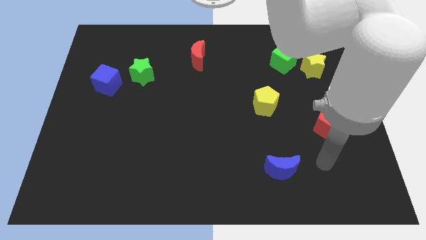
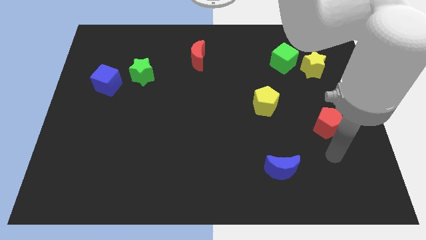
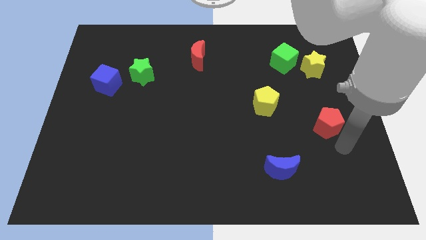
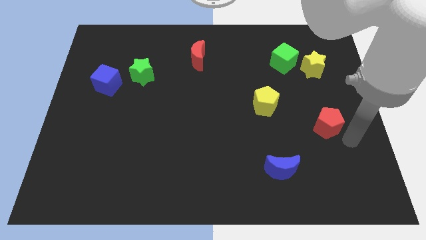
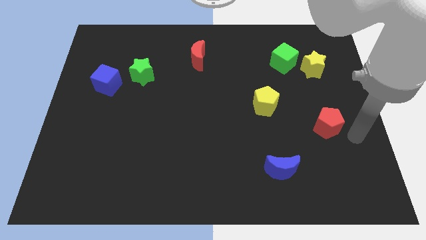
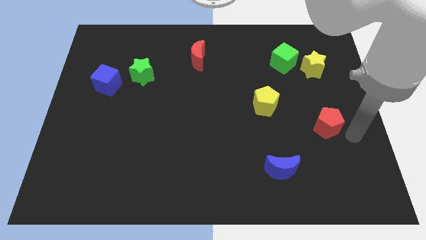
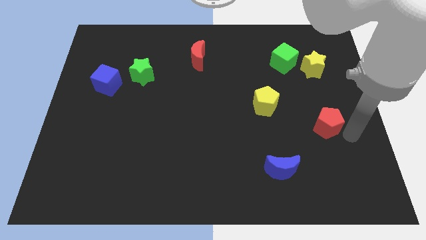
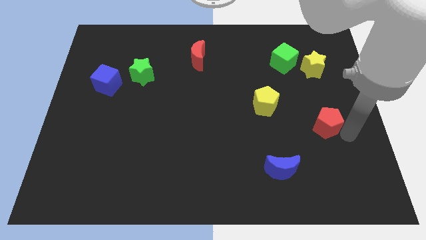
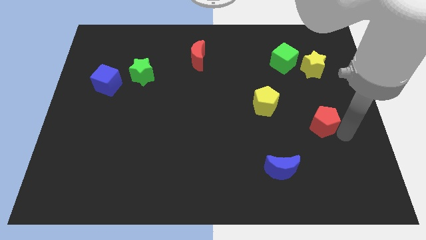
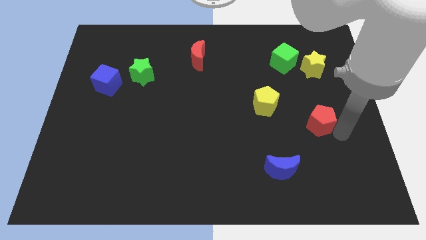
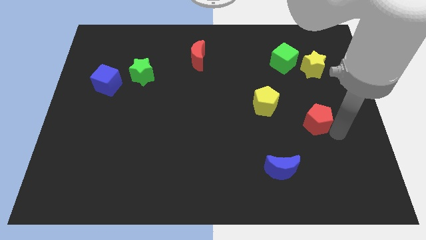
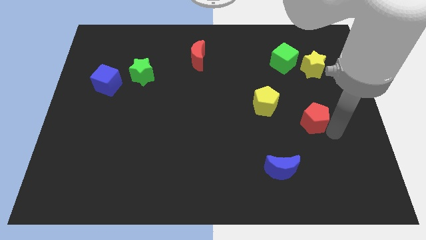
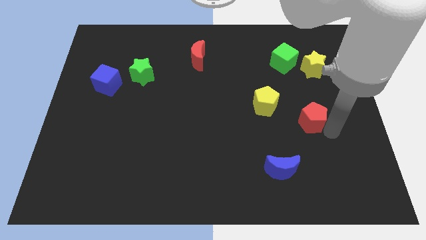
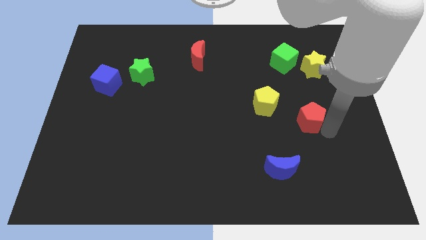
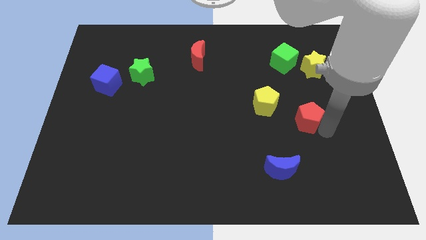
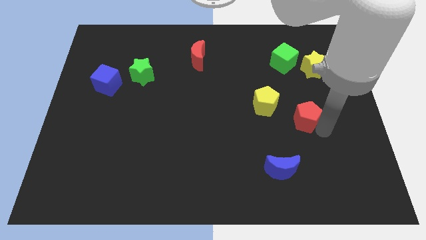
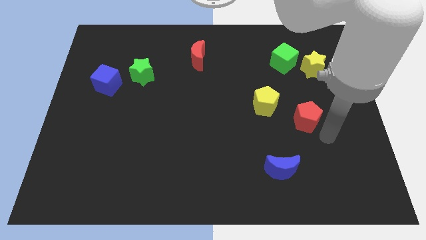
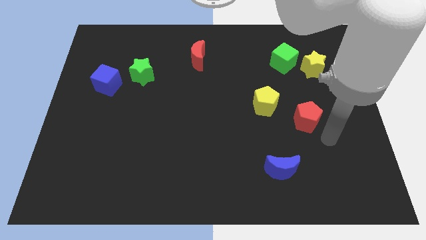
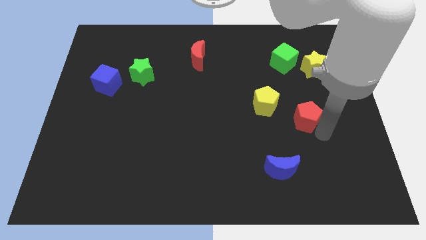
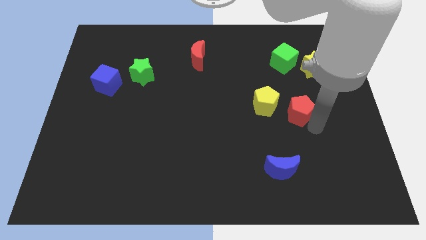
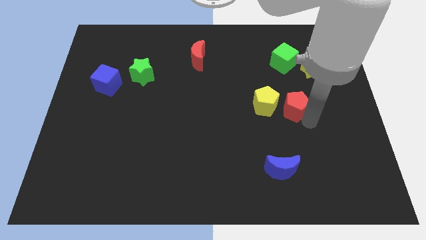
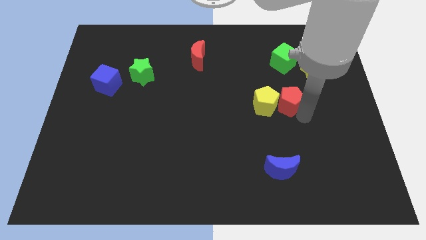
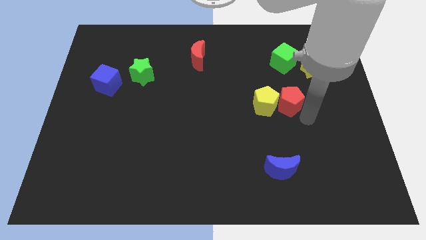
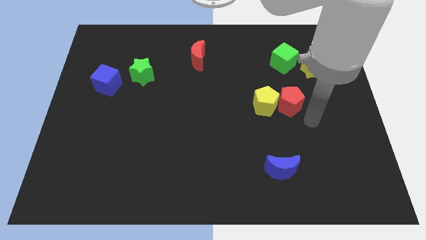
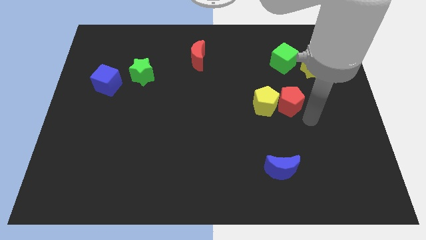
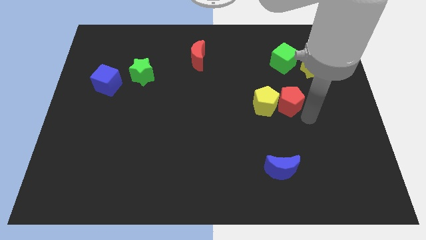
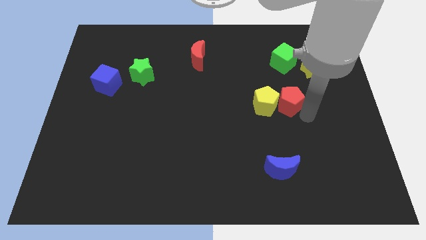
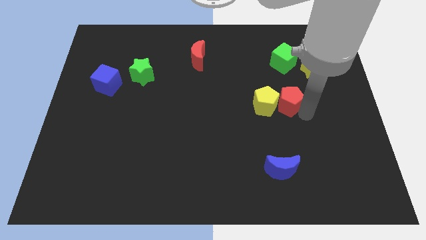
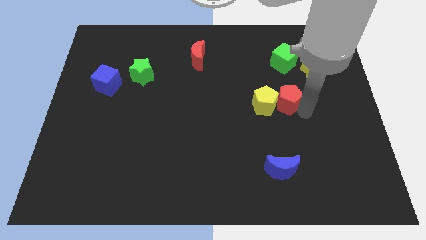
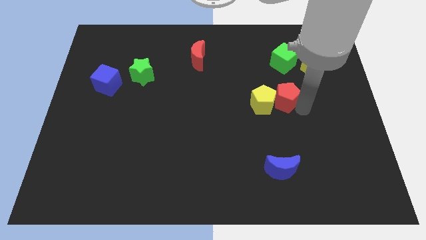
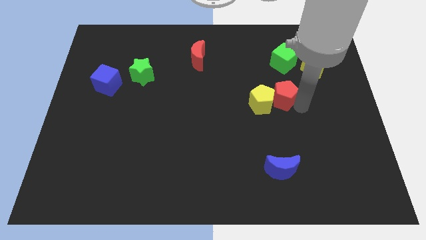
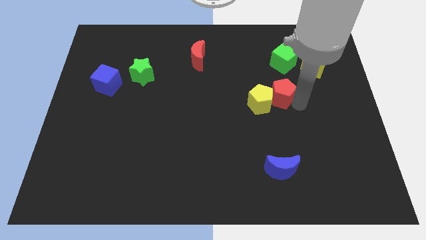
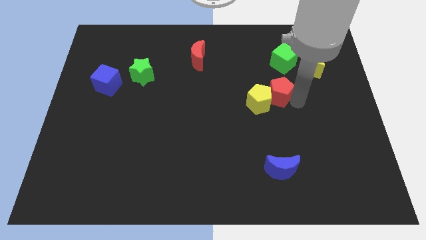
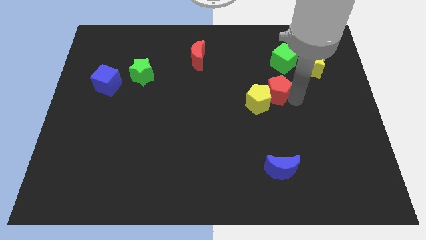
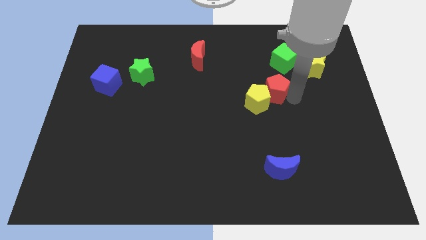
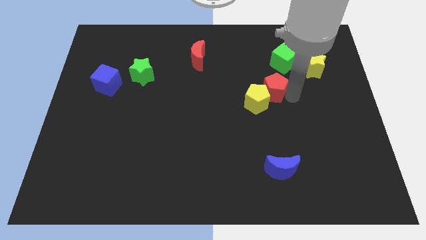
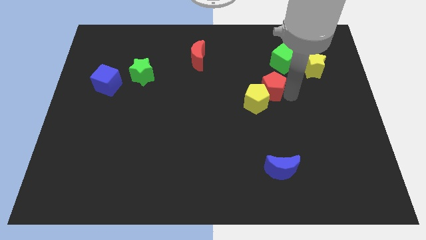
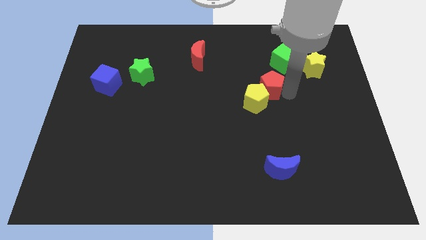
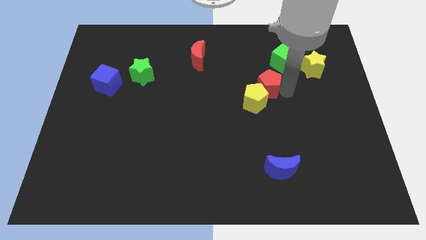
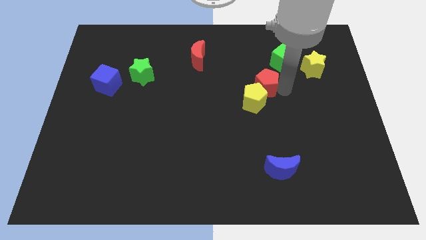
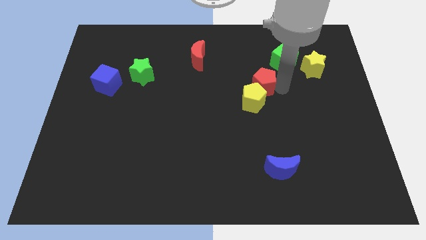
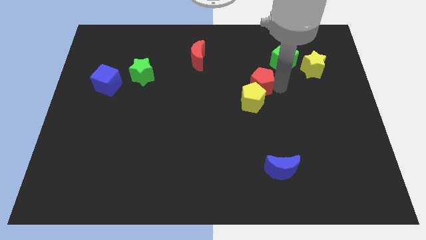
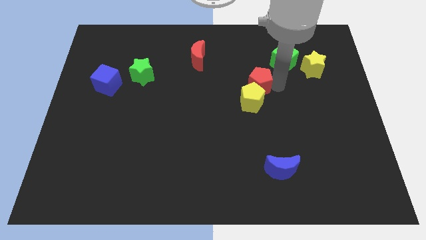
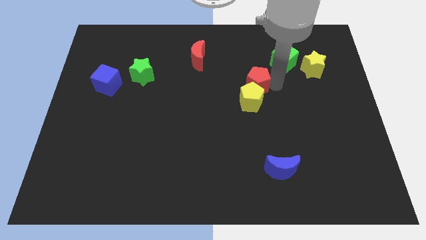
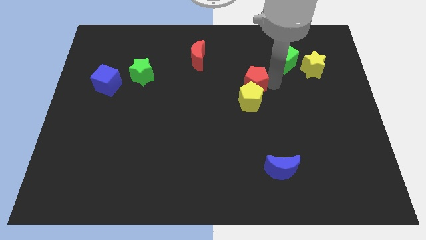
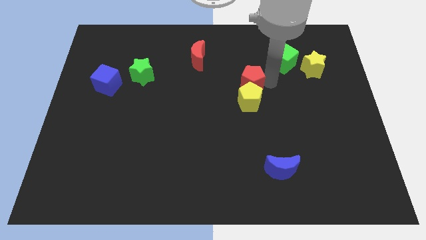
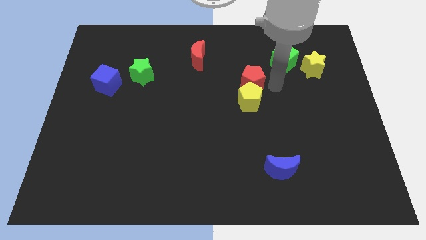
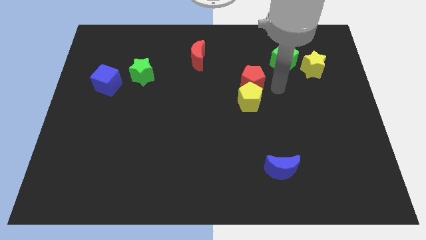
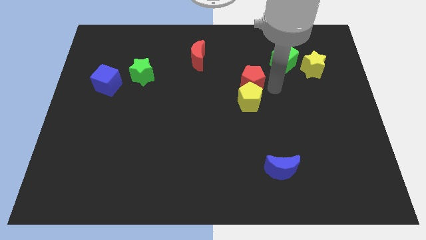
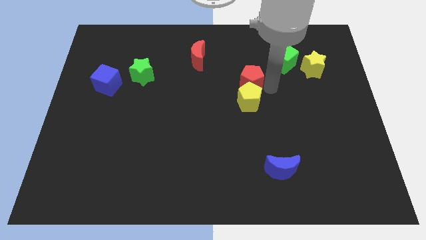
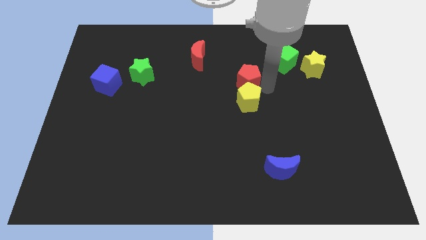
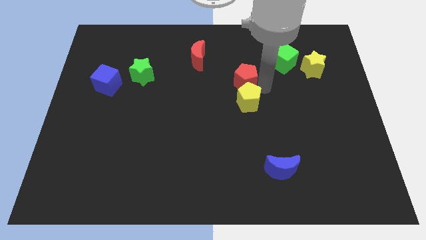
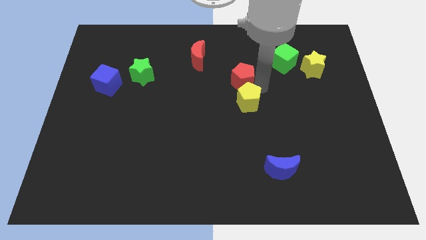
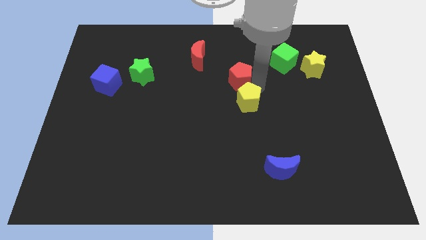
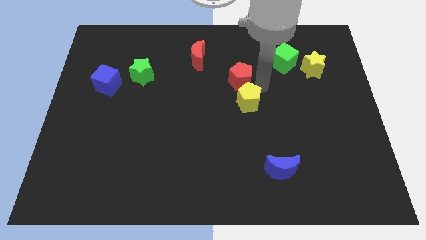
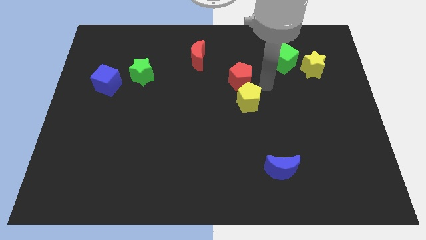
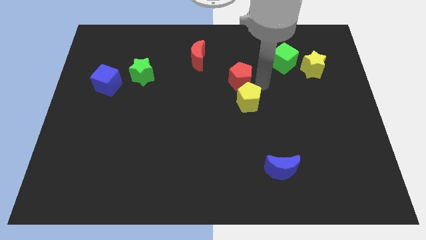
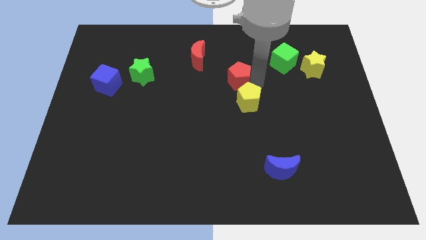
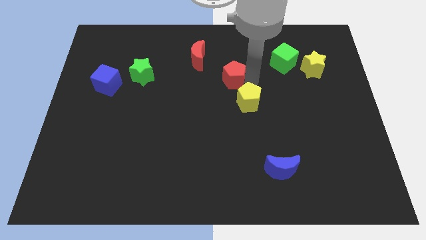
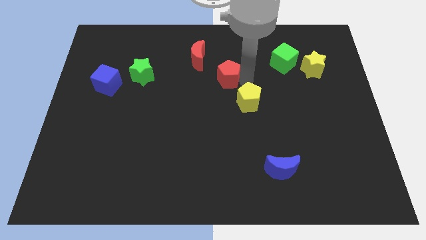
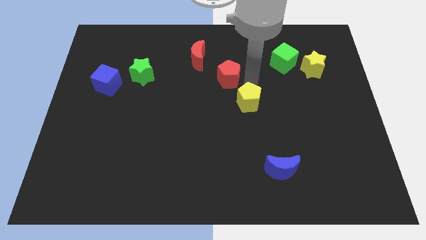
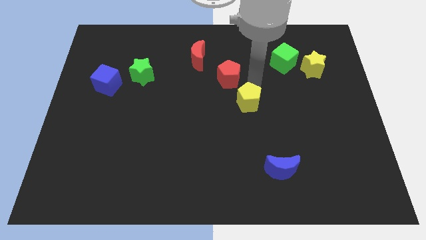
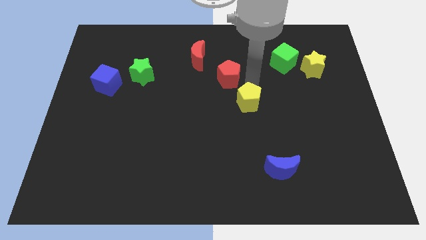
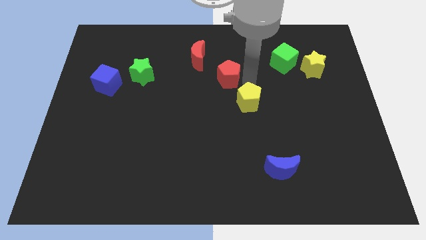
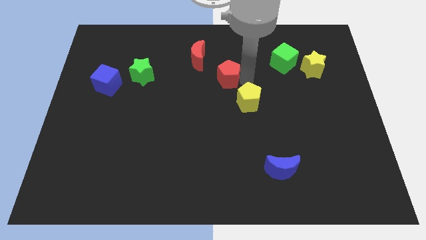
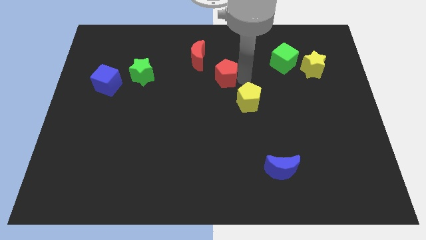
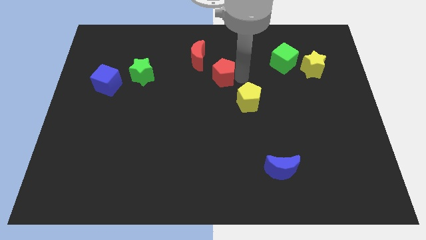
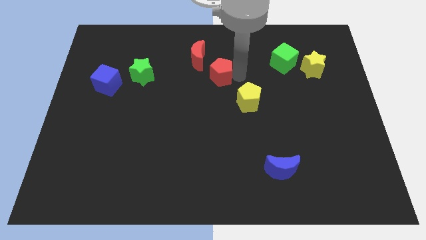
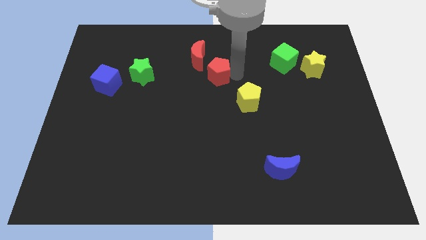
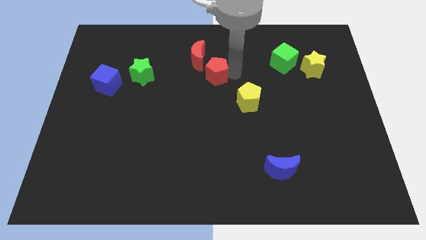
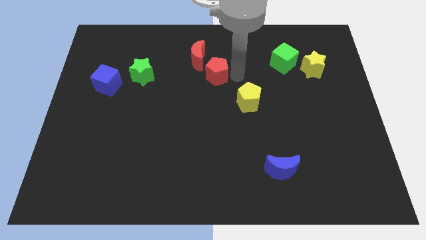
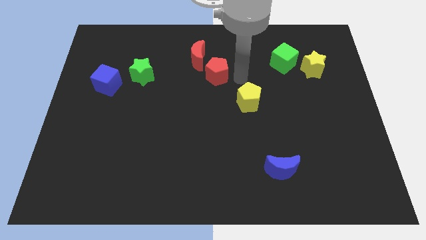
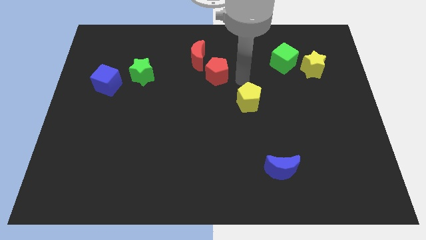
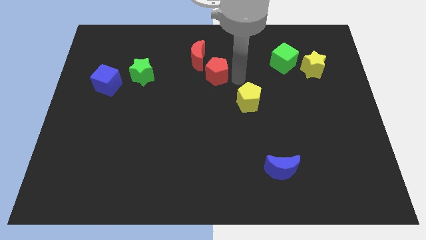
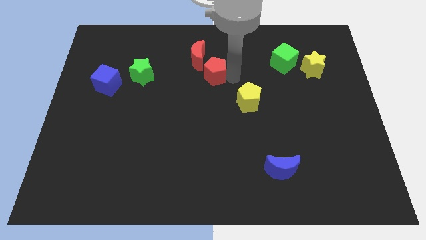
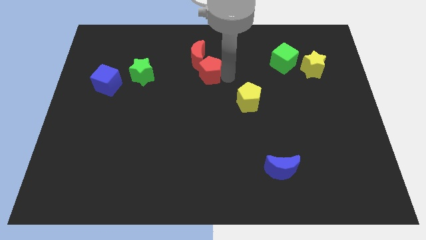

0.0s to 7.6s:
push the red pentagon towards the red moon

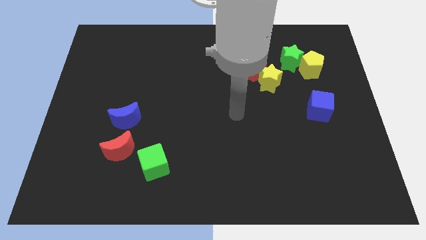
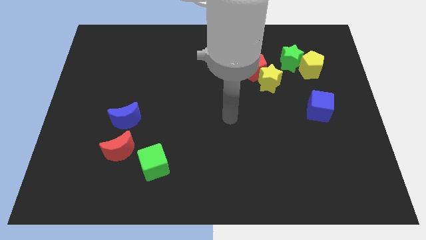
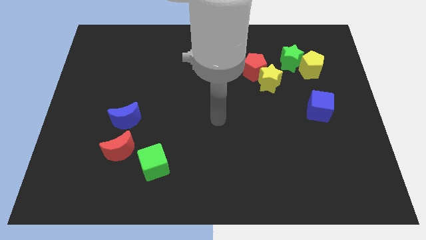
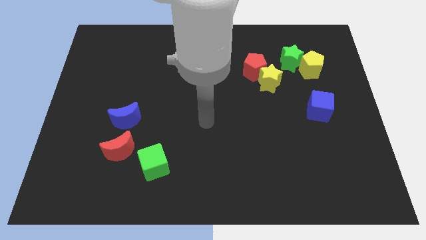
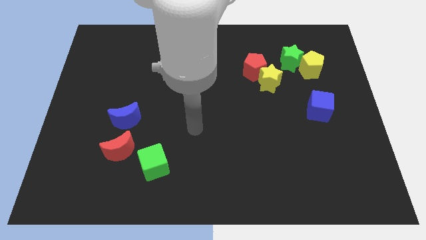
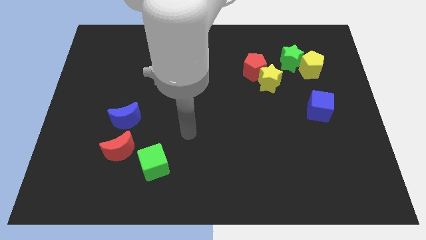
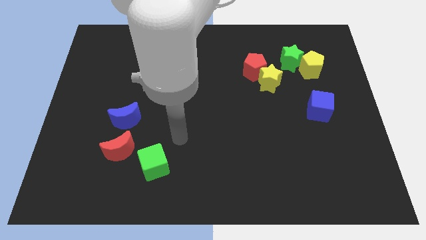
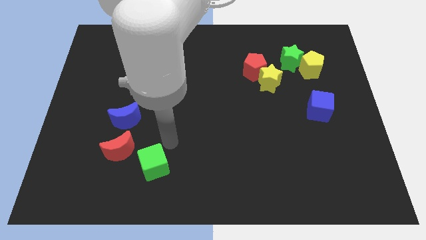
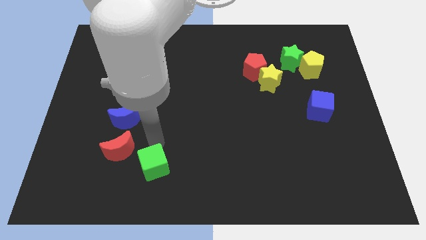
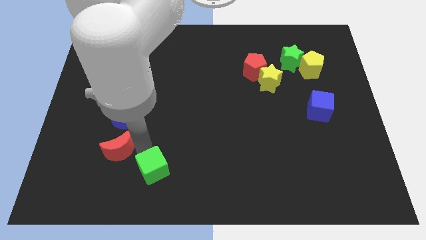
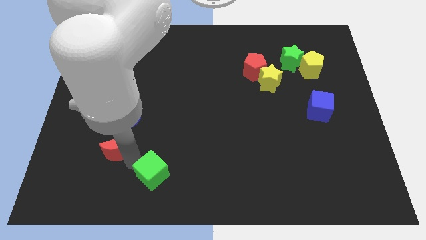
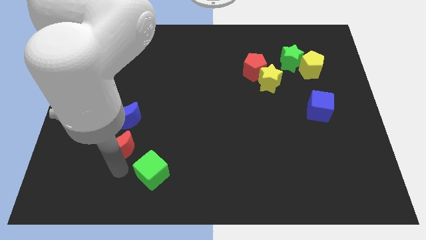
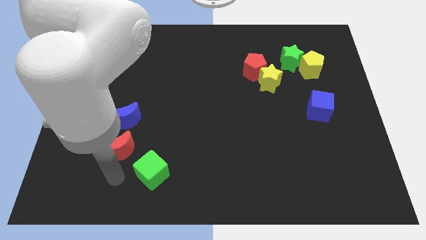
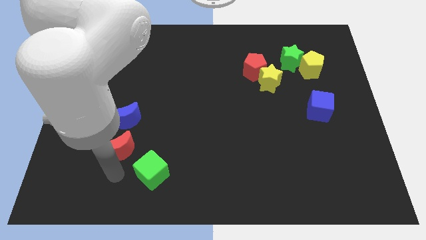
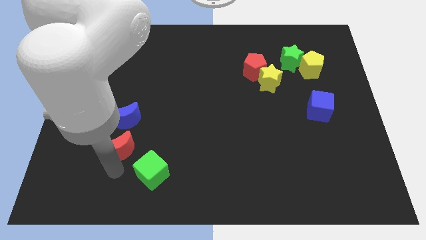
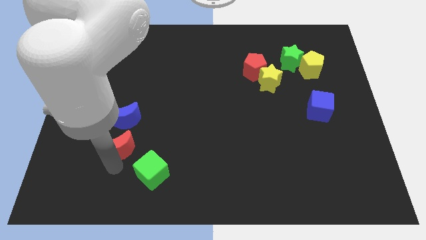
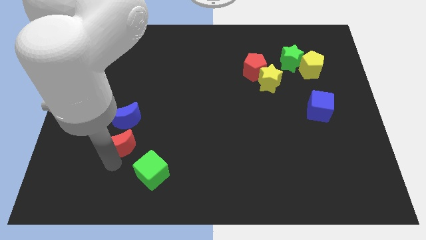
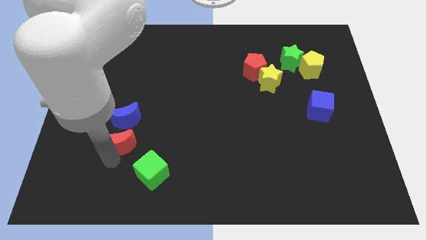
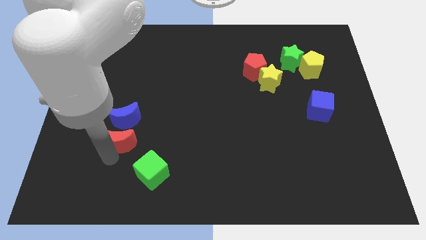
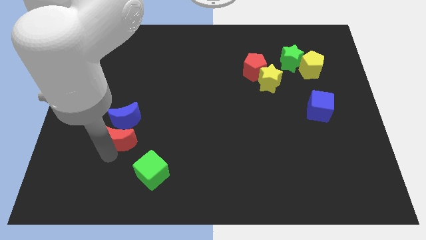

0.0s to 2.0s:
move the red moon towards the blue moon
